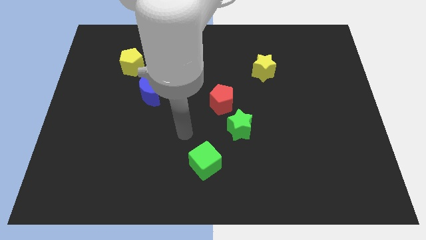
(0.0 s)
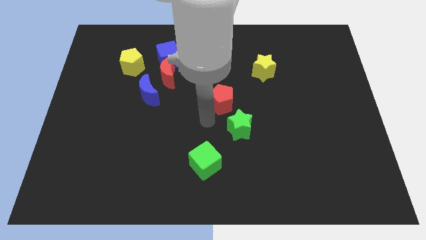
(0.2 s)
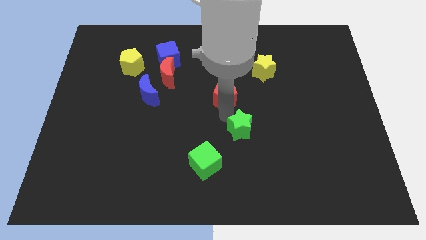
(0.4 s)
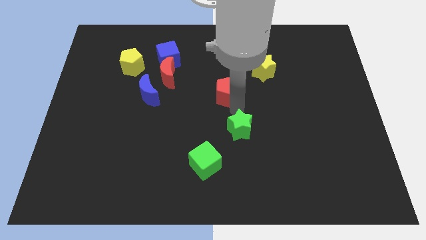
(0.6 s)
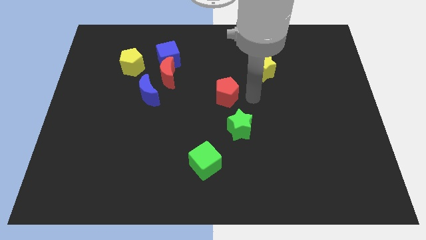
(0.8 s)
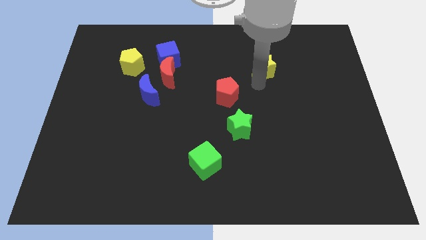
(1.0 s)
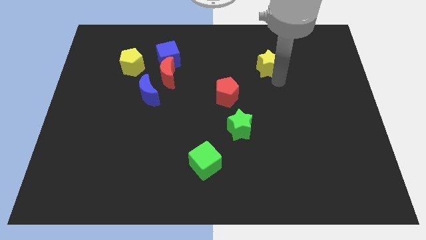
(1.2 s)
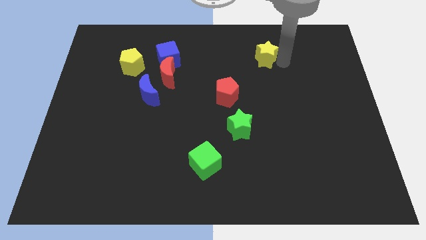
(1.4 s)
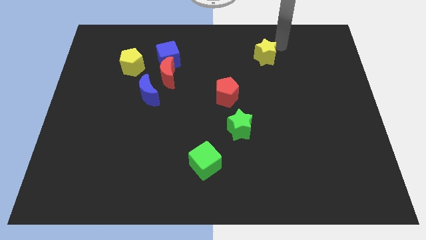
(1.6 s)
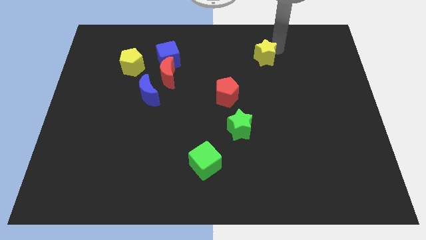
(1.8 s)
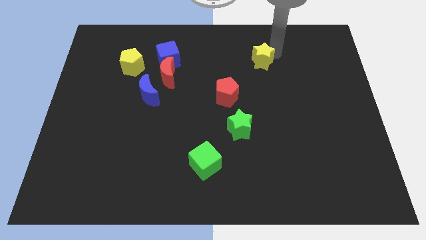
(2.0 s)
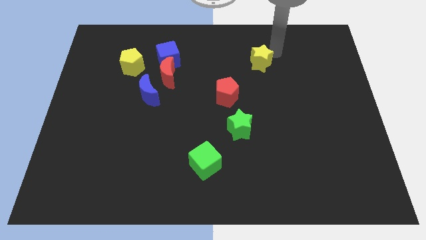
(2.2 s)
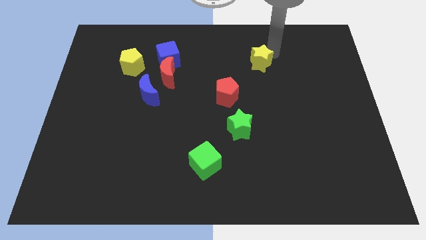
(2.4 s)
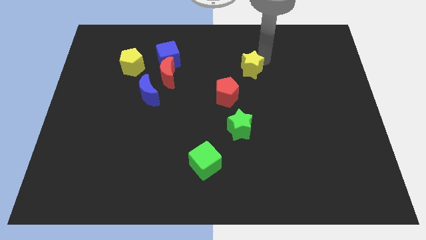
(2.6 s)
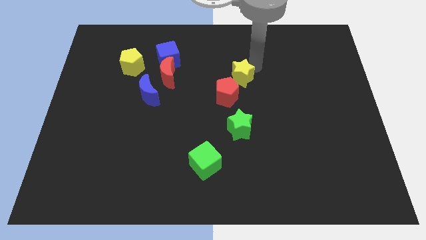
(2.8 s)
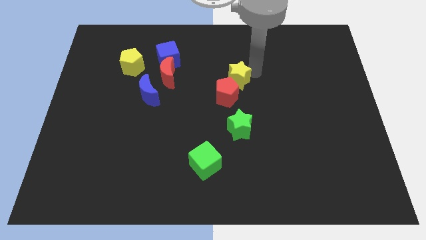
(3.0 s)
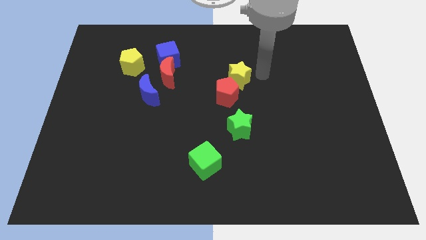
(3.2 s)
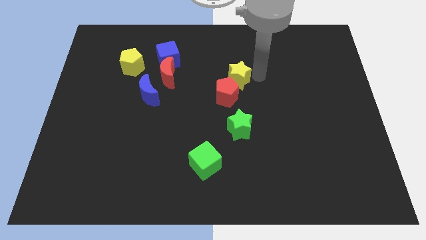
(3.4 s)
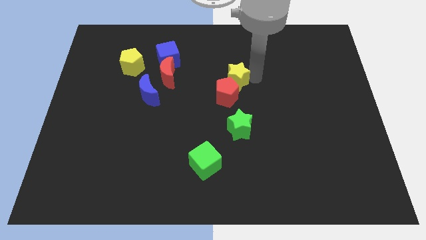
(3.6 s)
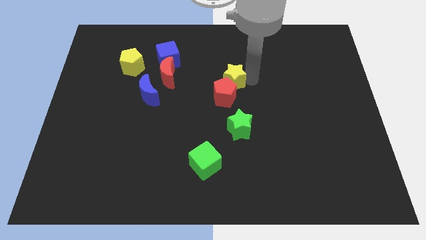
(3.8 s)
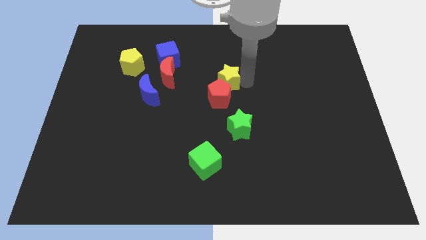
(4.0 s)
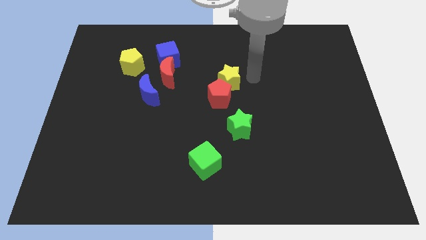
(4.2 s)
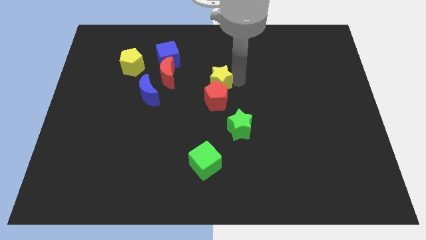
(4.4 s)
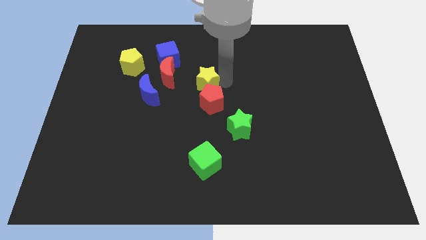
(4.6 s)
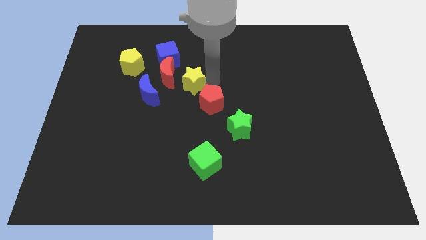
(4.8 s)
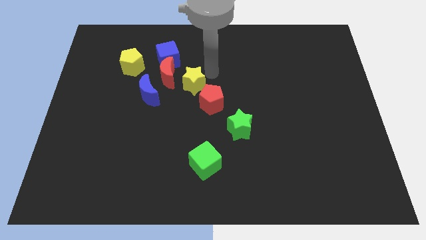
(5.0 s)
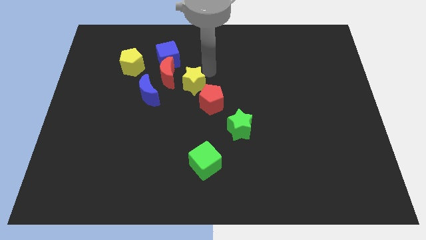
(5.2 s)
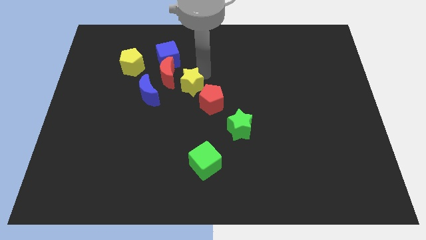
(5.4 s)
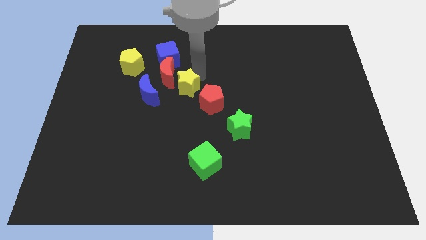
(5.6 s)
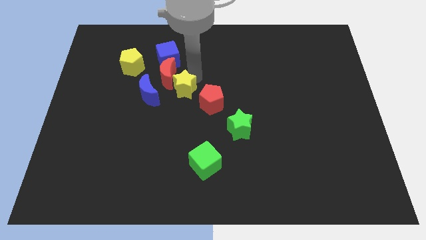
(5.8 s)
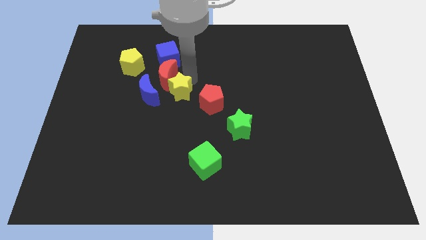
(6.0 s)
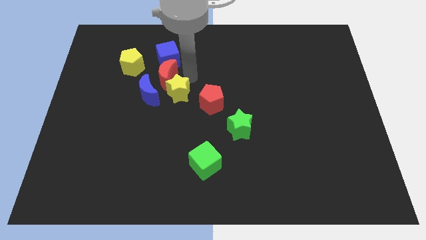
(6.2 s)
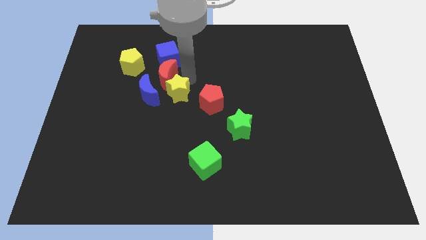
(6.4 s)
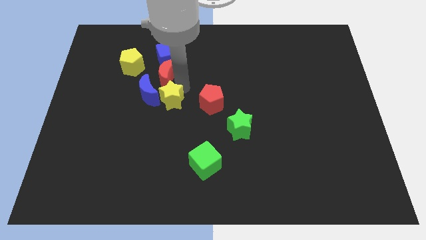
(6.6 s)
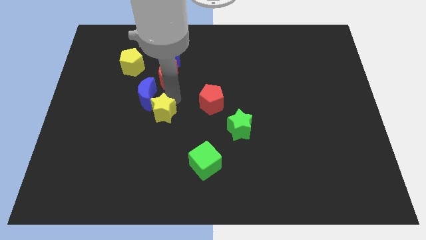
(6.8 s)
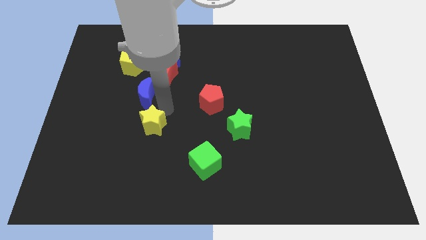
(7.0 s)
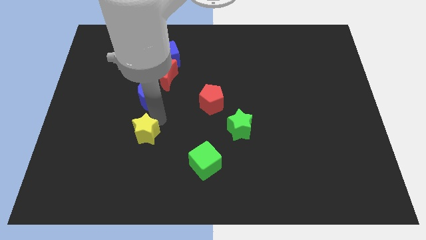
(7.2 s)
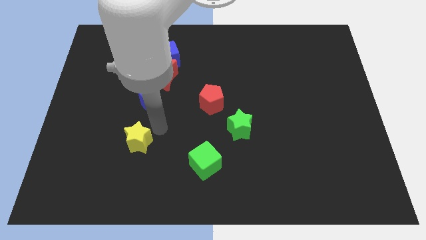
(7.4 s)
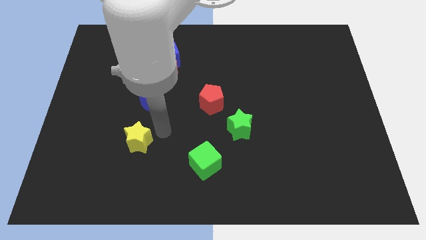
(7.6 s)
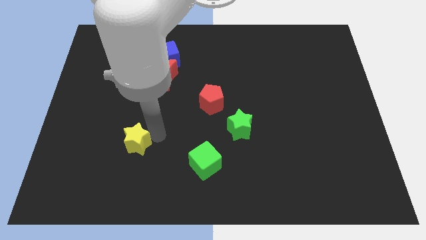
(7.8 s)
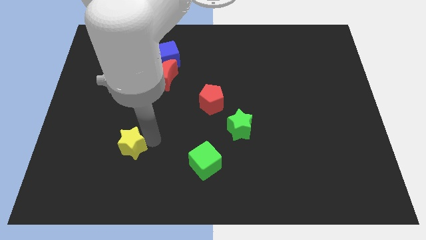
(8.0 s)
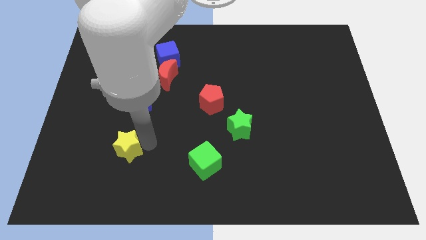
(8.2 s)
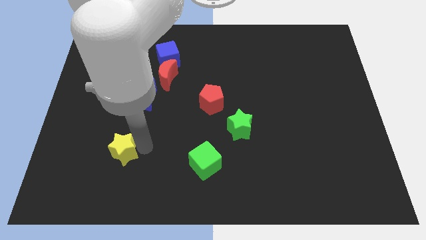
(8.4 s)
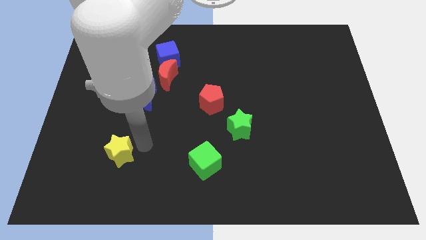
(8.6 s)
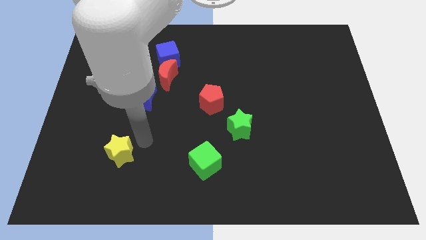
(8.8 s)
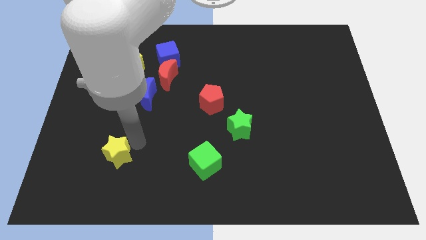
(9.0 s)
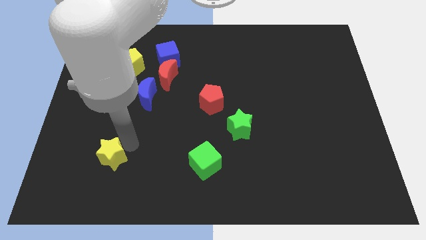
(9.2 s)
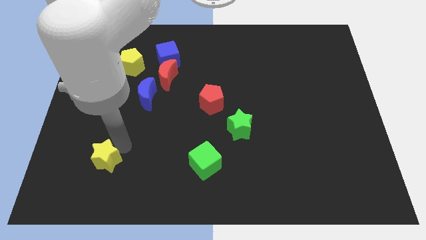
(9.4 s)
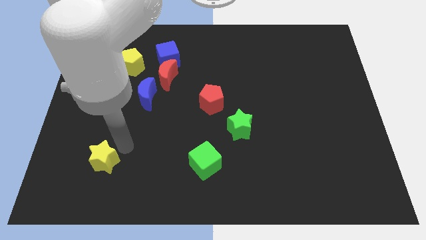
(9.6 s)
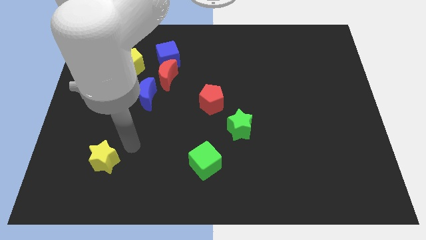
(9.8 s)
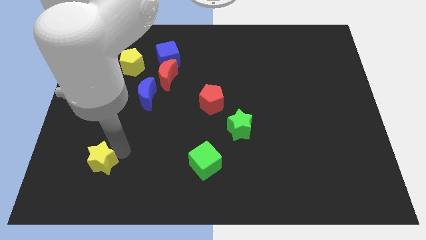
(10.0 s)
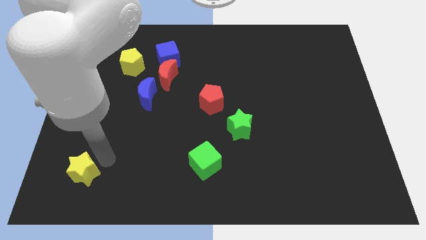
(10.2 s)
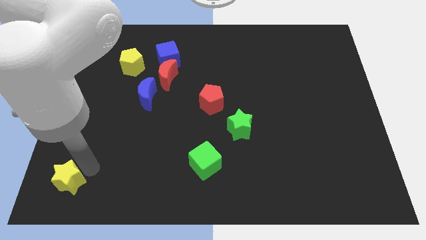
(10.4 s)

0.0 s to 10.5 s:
push the yellow star to the bottom left

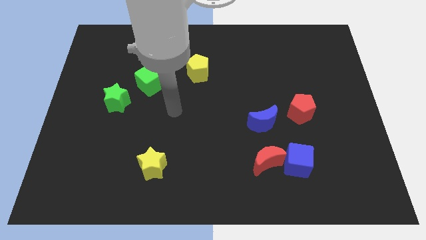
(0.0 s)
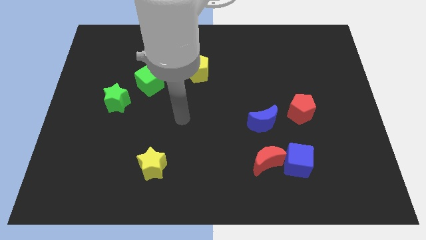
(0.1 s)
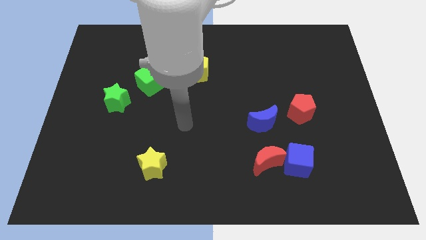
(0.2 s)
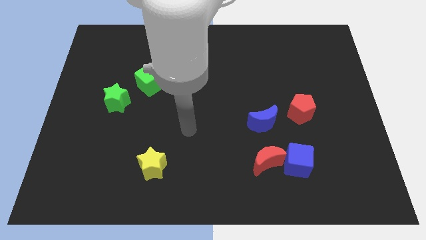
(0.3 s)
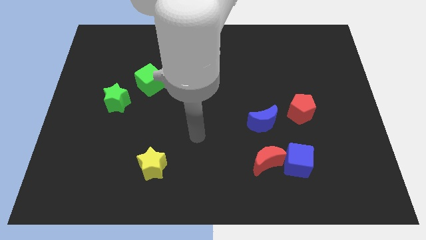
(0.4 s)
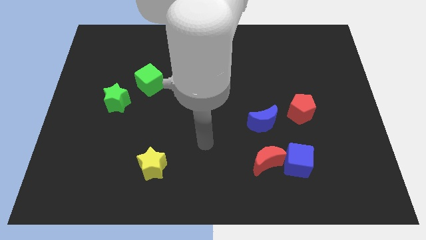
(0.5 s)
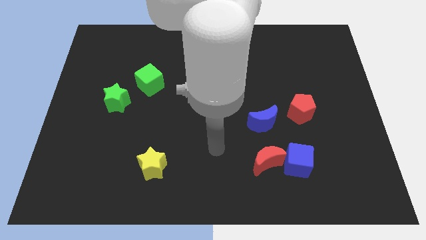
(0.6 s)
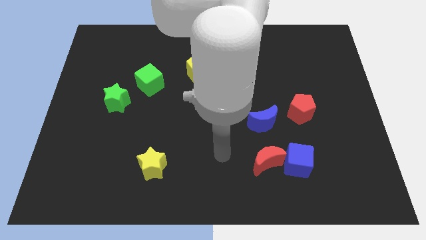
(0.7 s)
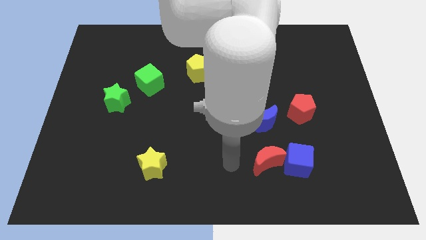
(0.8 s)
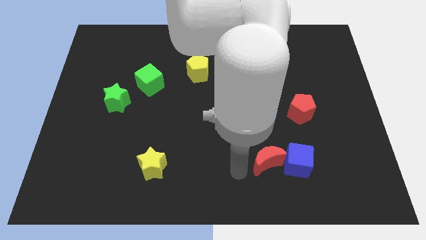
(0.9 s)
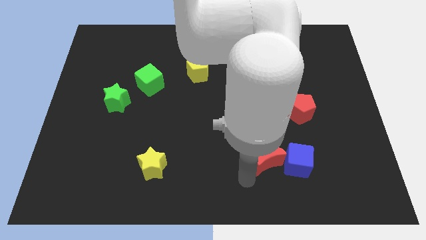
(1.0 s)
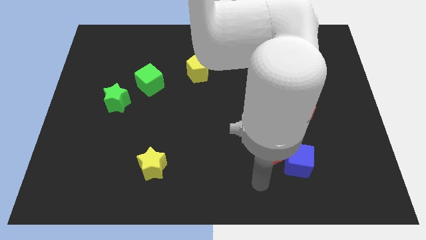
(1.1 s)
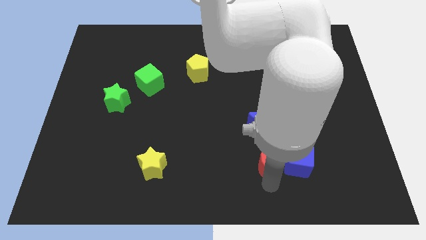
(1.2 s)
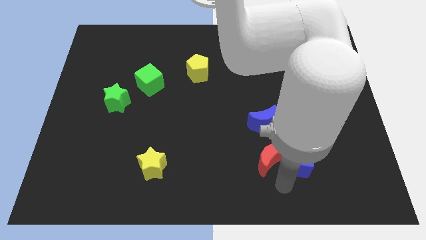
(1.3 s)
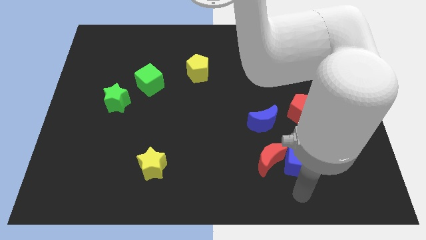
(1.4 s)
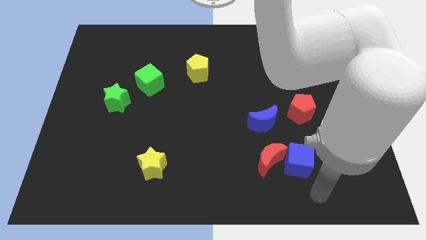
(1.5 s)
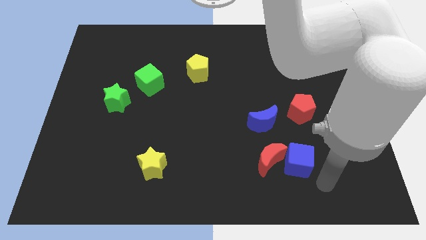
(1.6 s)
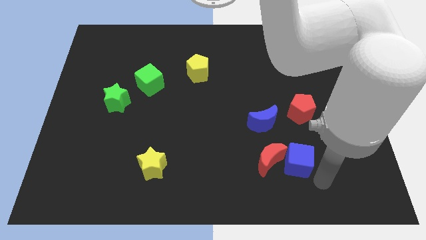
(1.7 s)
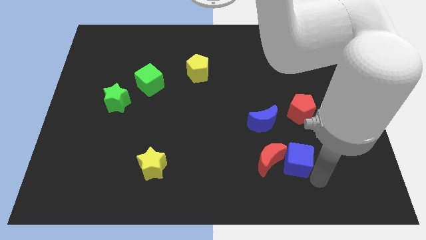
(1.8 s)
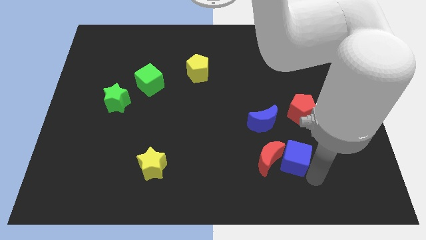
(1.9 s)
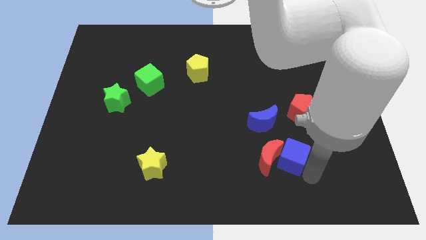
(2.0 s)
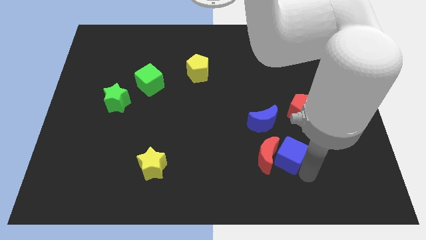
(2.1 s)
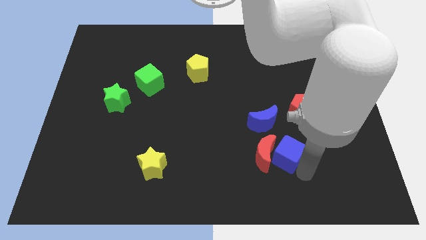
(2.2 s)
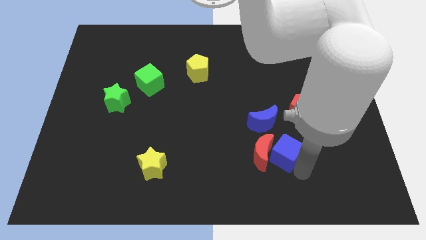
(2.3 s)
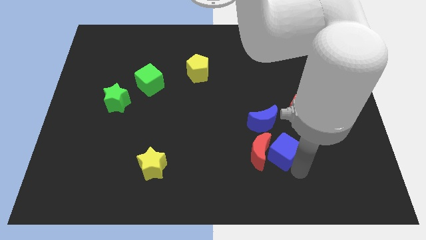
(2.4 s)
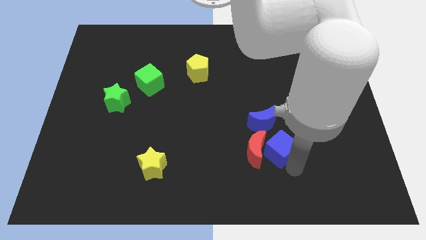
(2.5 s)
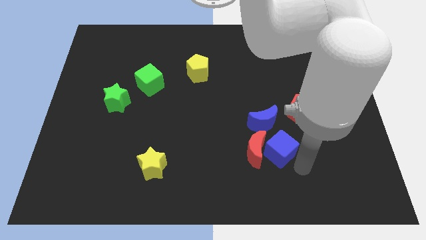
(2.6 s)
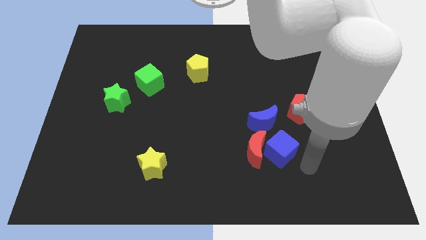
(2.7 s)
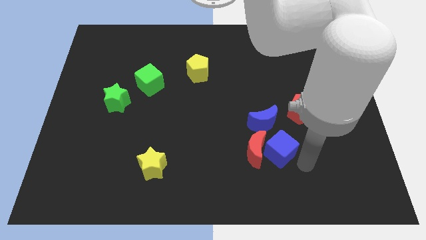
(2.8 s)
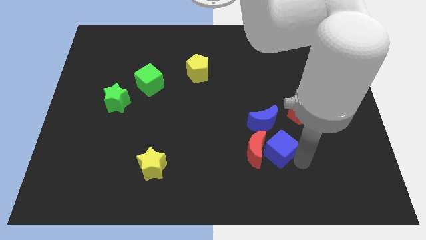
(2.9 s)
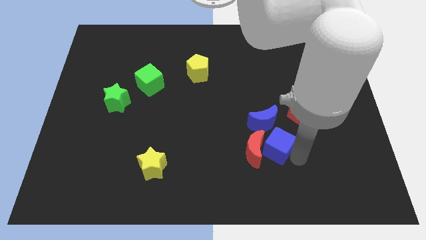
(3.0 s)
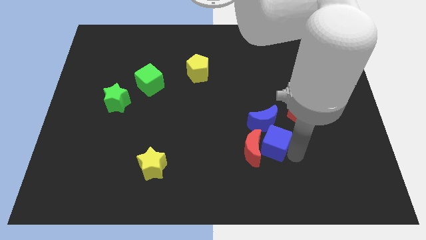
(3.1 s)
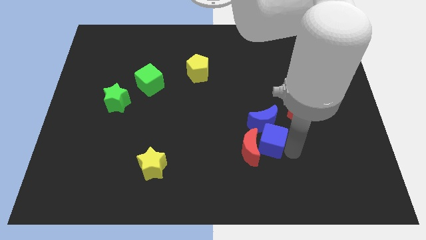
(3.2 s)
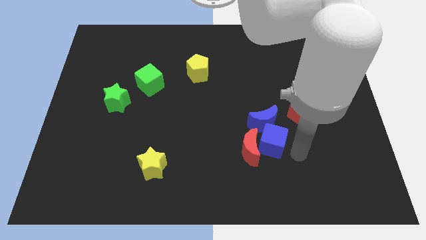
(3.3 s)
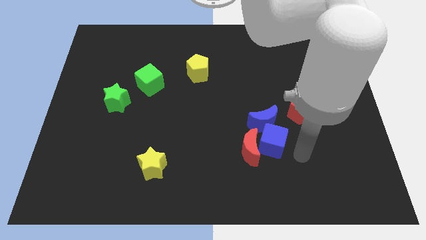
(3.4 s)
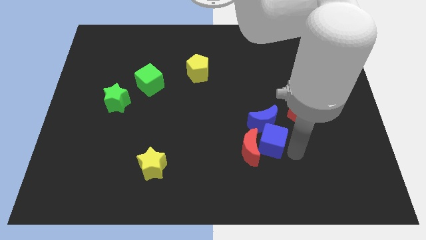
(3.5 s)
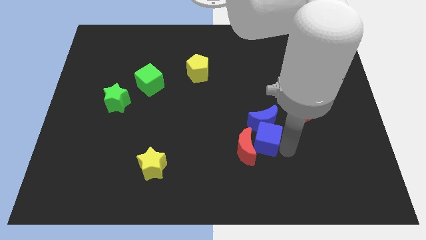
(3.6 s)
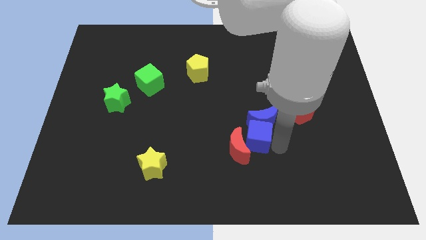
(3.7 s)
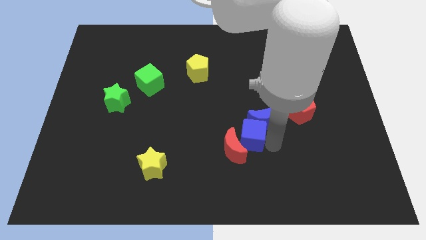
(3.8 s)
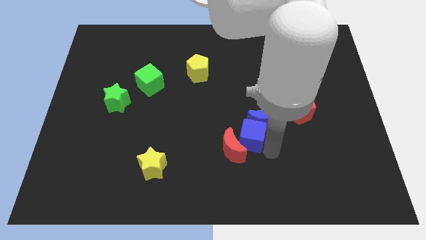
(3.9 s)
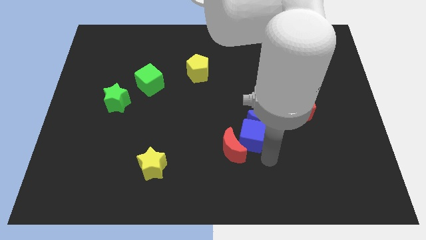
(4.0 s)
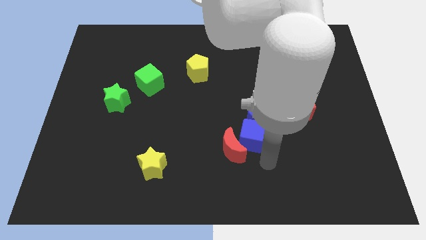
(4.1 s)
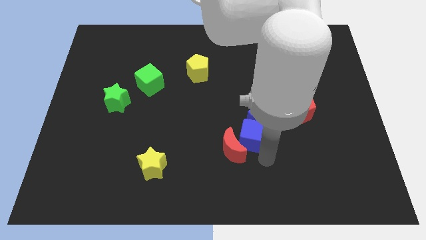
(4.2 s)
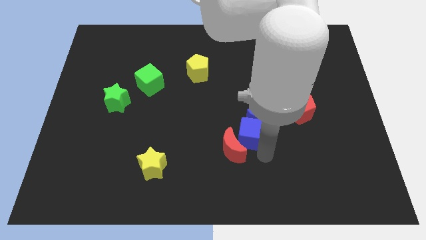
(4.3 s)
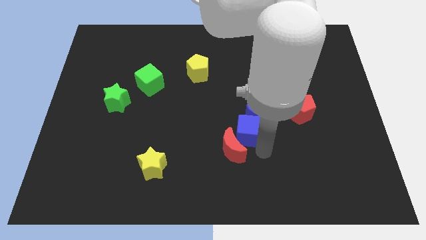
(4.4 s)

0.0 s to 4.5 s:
push the blue cube to the middle of the board
